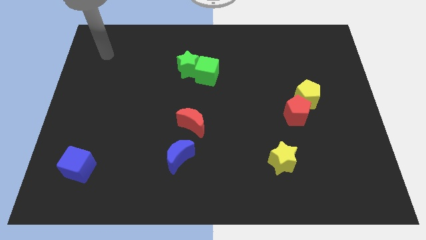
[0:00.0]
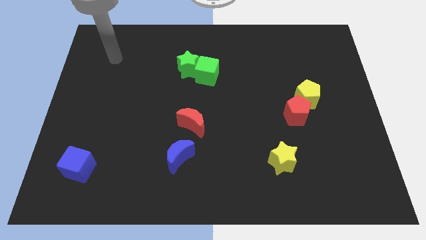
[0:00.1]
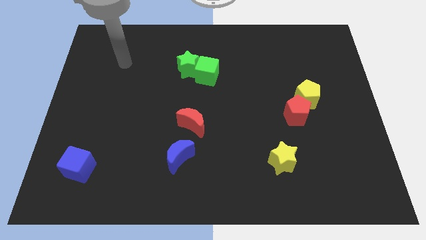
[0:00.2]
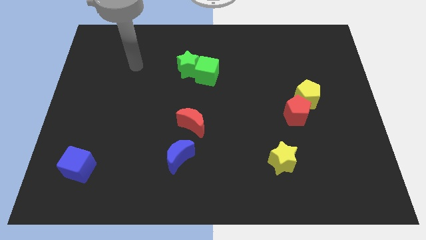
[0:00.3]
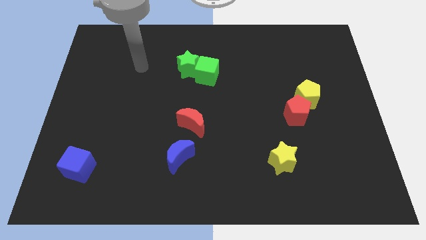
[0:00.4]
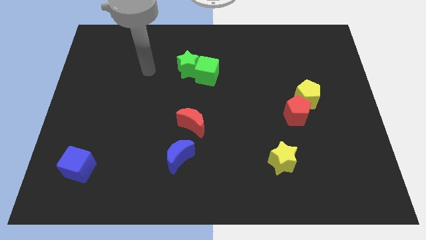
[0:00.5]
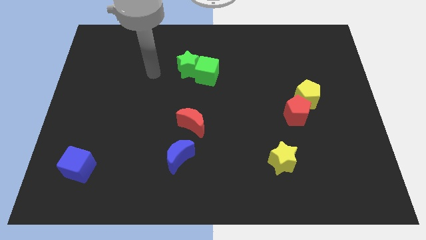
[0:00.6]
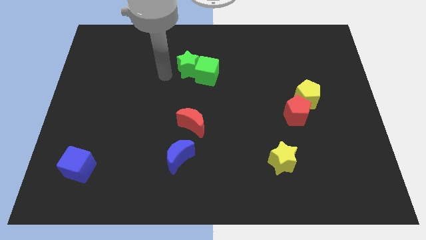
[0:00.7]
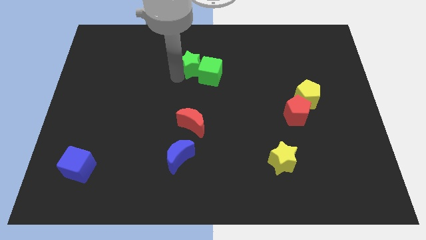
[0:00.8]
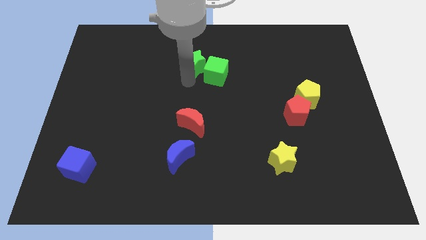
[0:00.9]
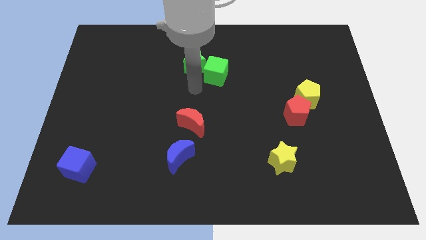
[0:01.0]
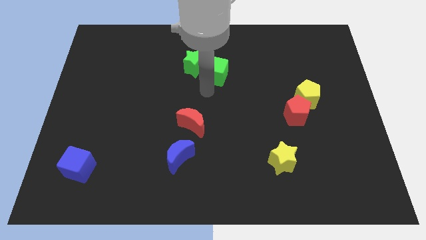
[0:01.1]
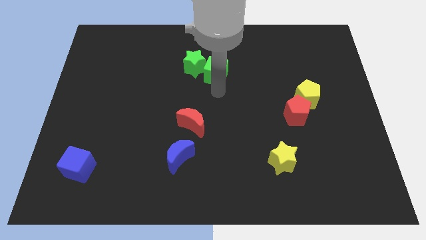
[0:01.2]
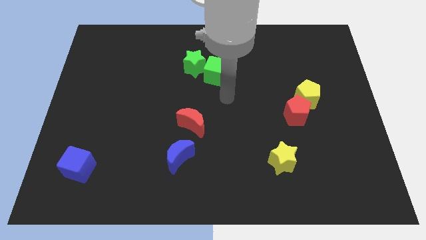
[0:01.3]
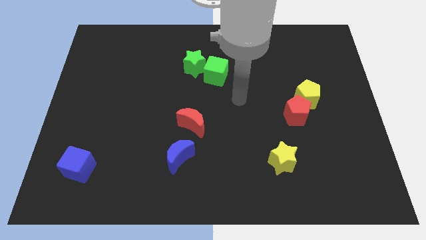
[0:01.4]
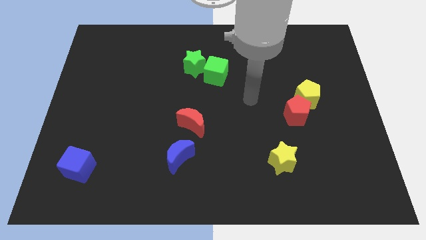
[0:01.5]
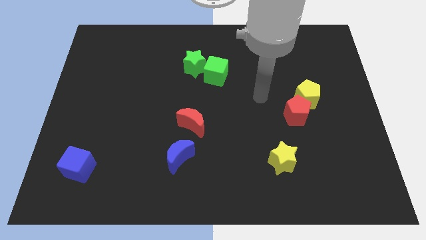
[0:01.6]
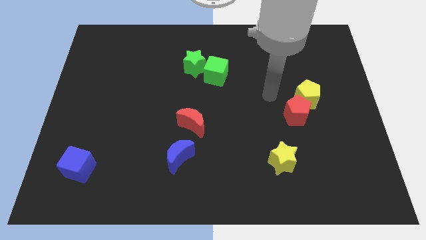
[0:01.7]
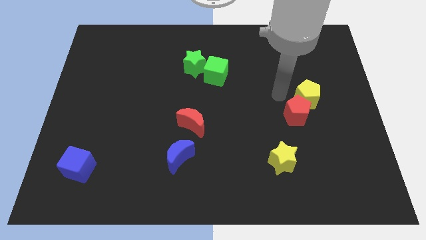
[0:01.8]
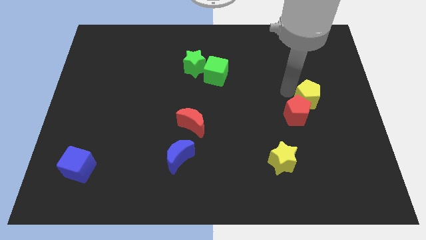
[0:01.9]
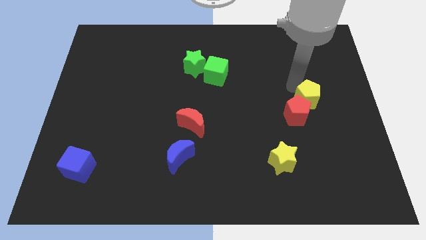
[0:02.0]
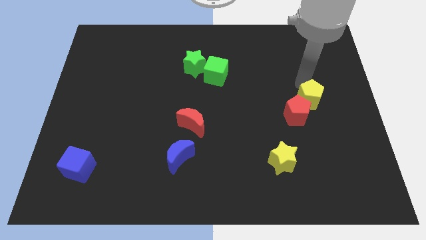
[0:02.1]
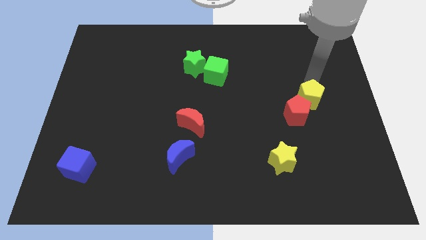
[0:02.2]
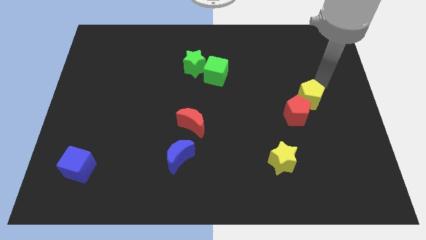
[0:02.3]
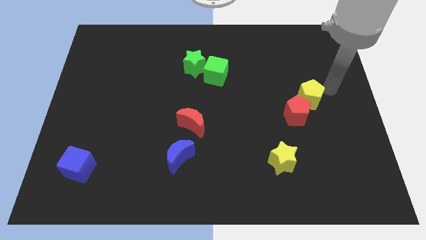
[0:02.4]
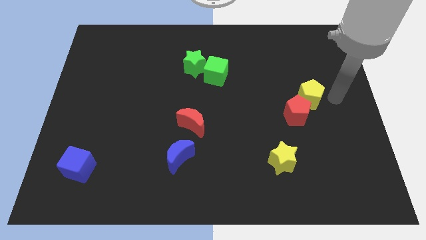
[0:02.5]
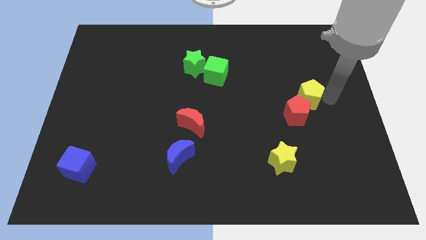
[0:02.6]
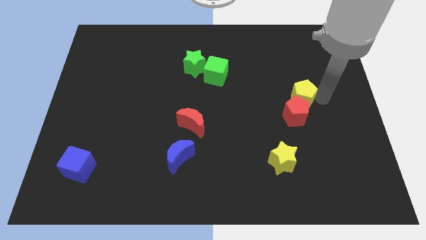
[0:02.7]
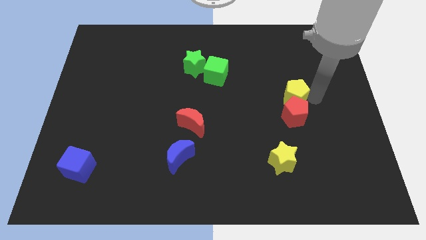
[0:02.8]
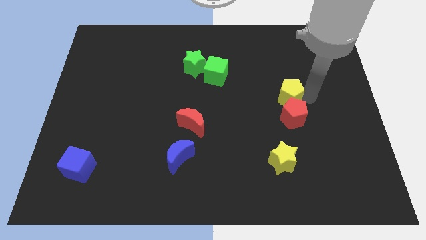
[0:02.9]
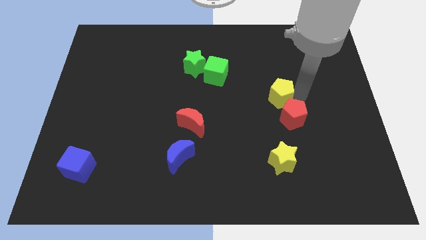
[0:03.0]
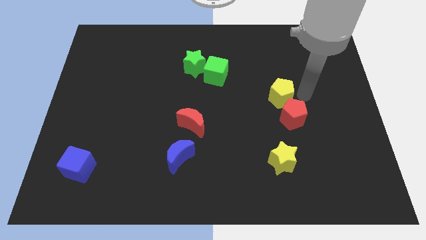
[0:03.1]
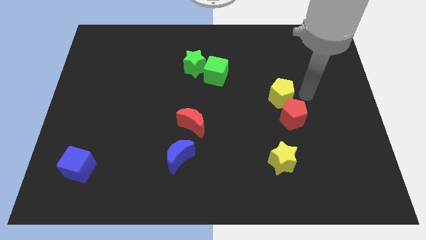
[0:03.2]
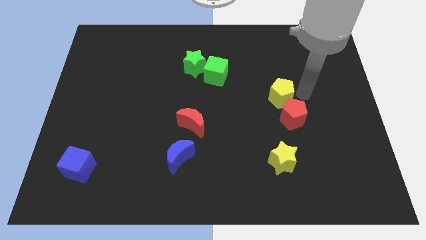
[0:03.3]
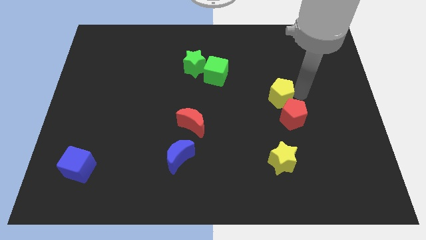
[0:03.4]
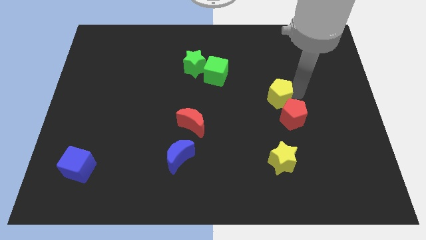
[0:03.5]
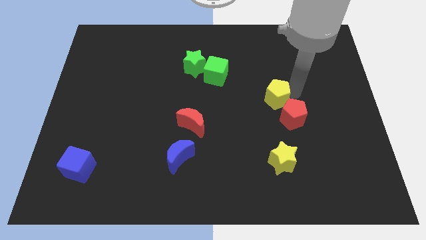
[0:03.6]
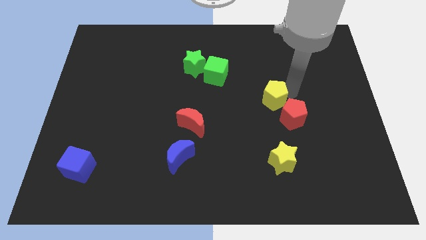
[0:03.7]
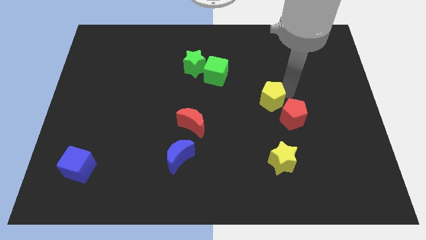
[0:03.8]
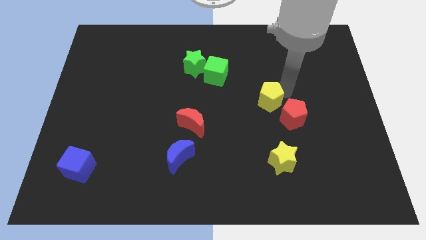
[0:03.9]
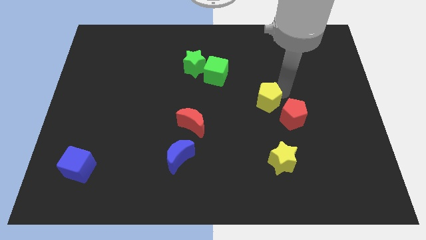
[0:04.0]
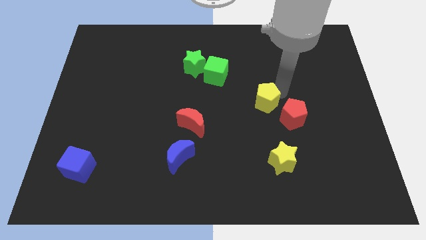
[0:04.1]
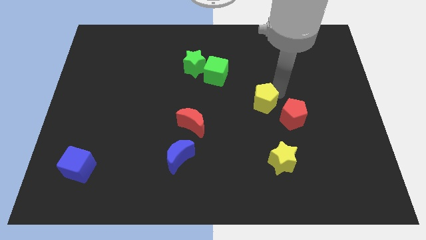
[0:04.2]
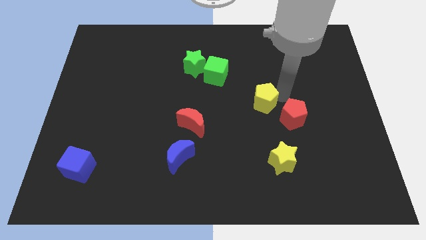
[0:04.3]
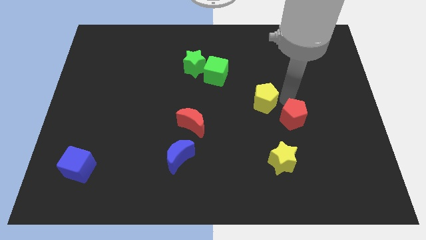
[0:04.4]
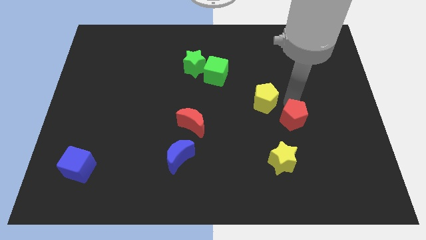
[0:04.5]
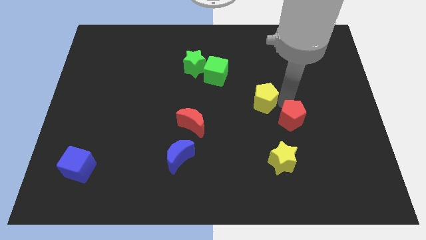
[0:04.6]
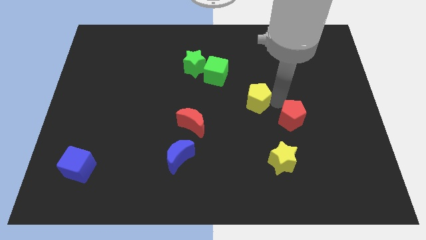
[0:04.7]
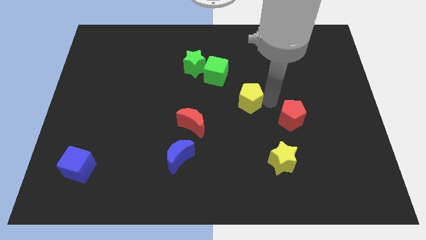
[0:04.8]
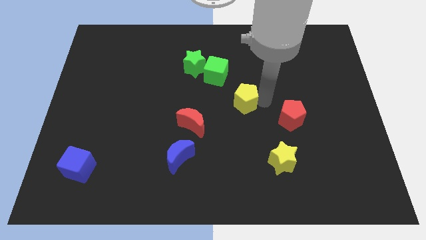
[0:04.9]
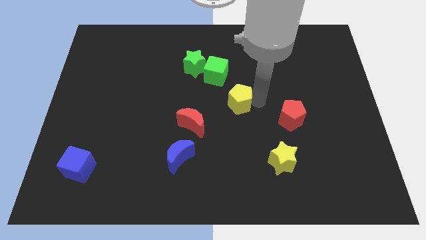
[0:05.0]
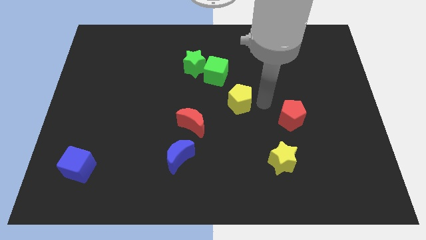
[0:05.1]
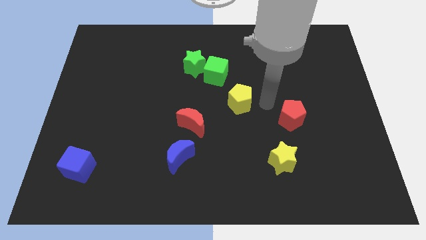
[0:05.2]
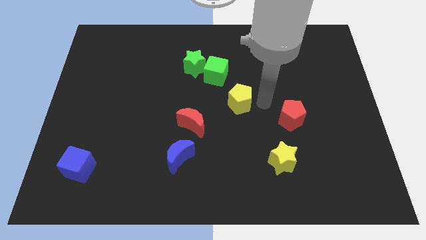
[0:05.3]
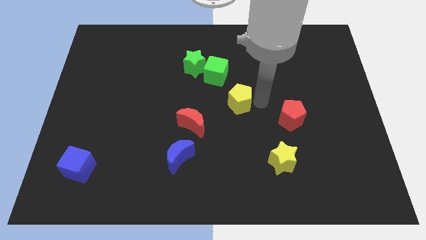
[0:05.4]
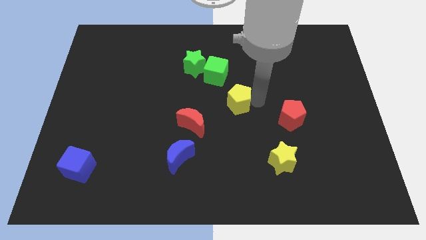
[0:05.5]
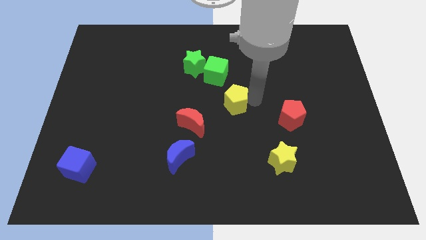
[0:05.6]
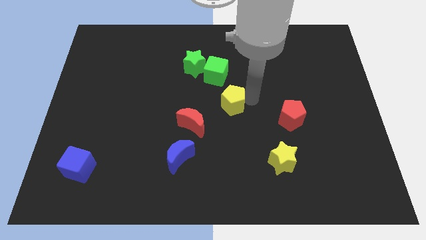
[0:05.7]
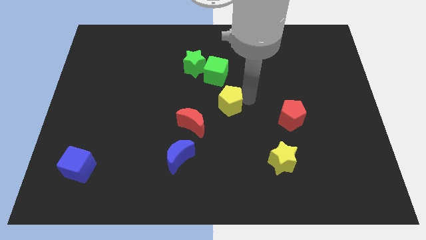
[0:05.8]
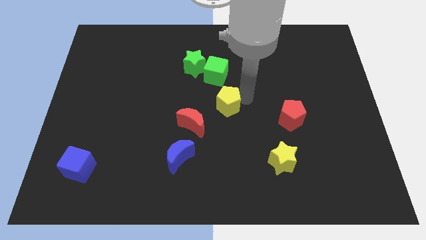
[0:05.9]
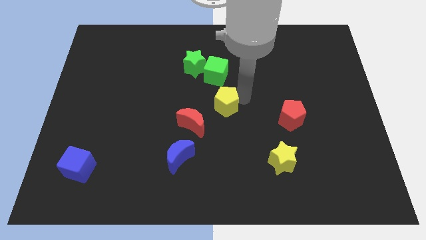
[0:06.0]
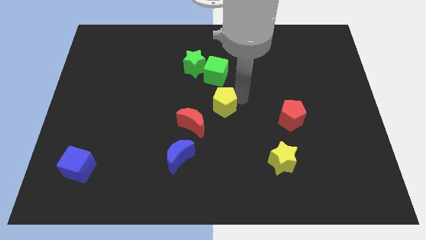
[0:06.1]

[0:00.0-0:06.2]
push the yellow pentagon left

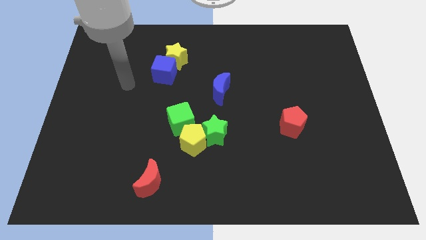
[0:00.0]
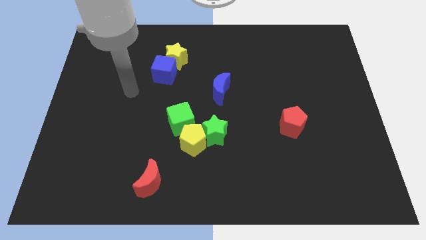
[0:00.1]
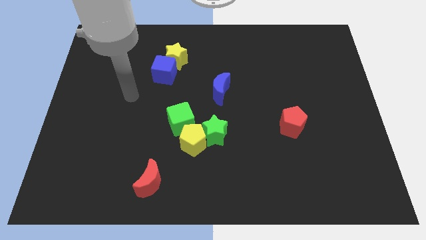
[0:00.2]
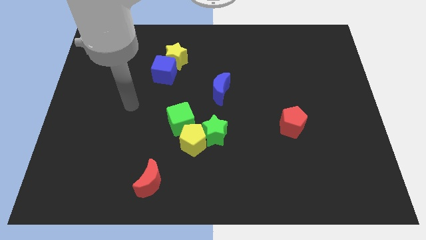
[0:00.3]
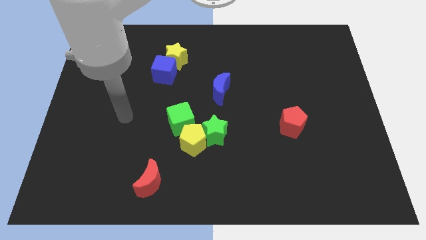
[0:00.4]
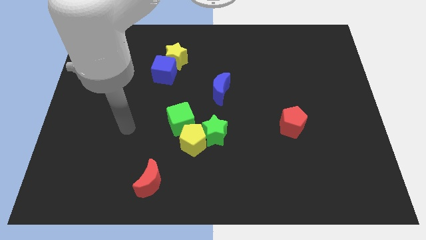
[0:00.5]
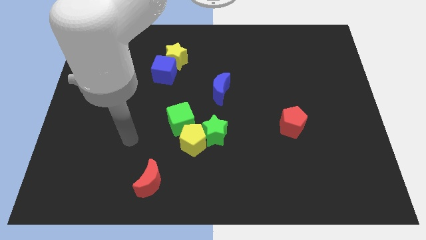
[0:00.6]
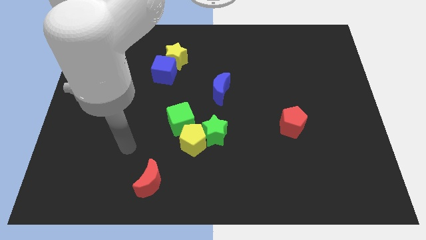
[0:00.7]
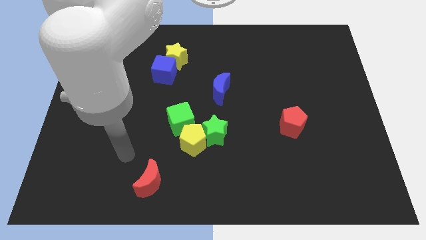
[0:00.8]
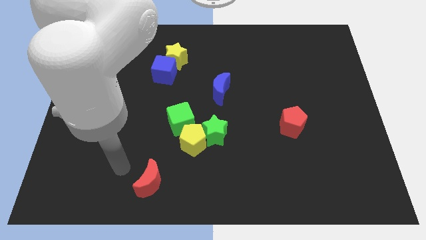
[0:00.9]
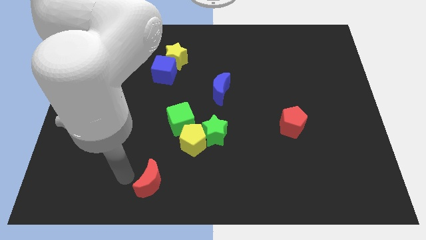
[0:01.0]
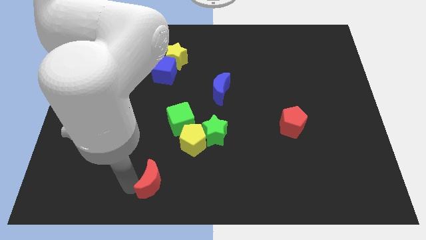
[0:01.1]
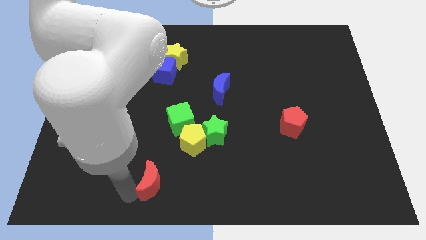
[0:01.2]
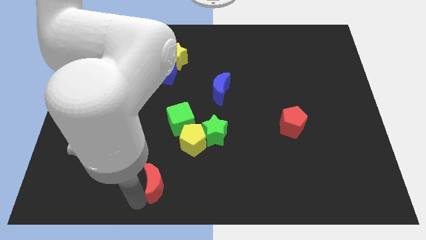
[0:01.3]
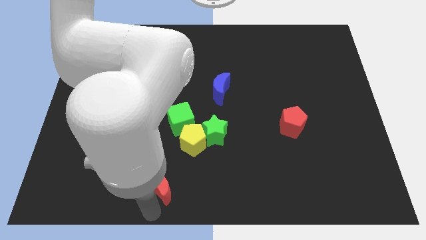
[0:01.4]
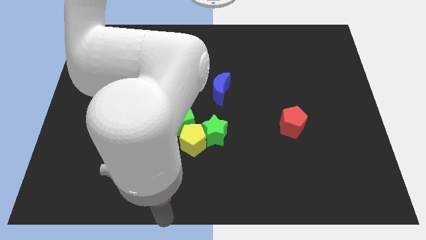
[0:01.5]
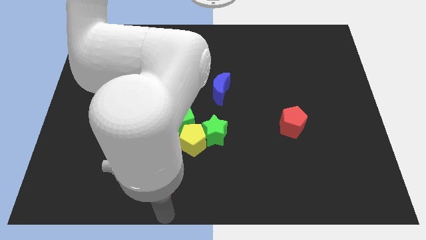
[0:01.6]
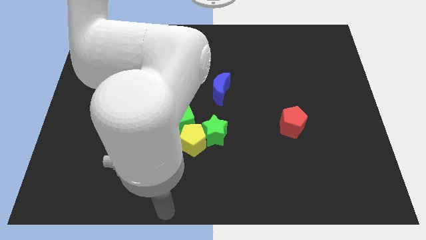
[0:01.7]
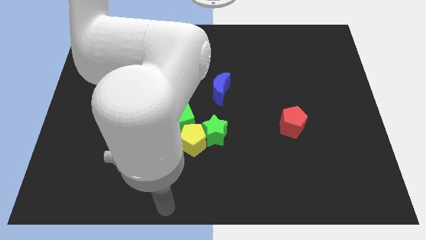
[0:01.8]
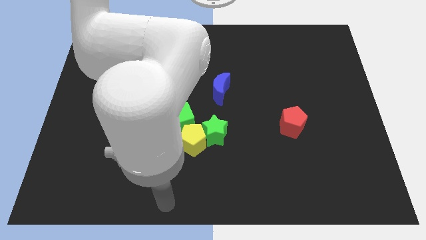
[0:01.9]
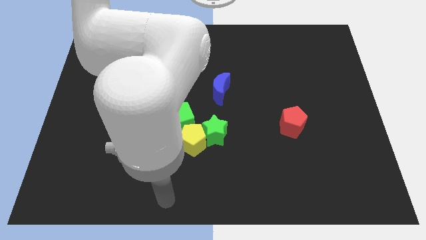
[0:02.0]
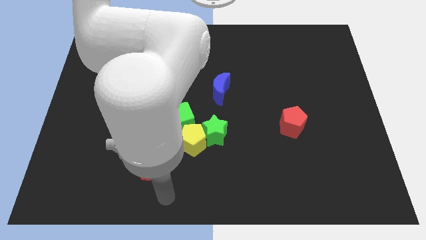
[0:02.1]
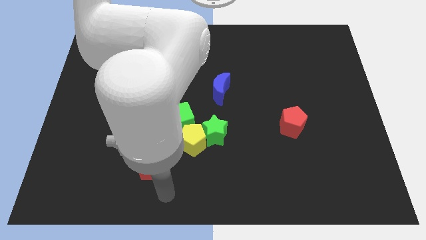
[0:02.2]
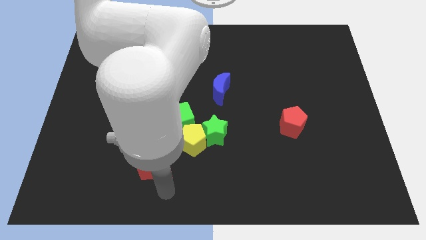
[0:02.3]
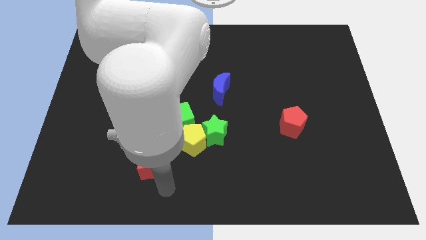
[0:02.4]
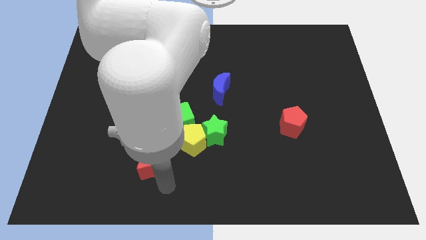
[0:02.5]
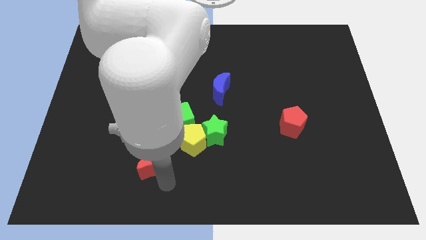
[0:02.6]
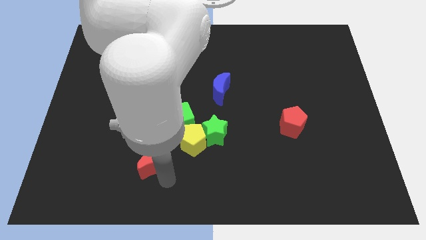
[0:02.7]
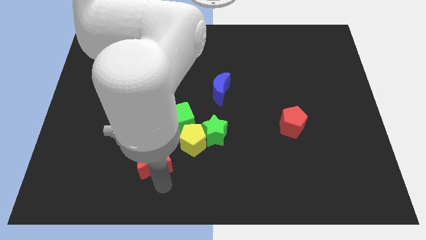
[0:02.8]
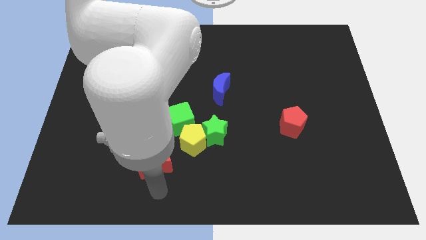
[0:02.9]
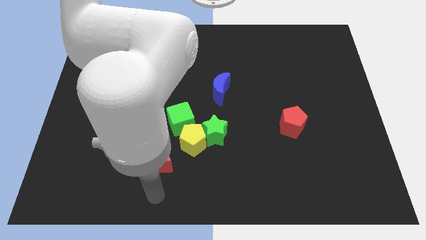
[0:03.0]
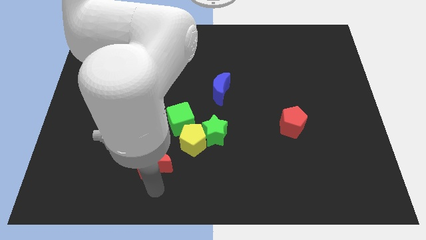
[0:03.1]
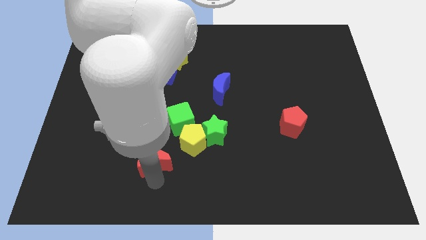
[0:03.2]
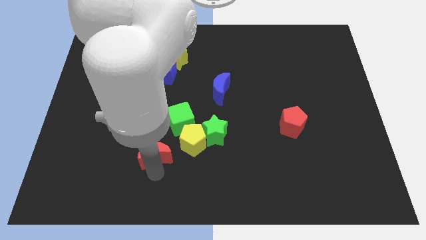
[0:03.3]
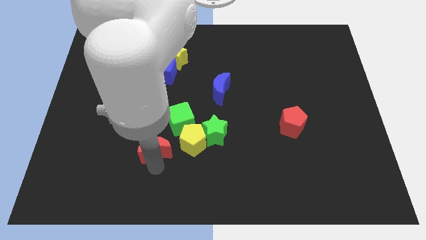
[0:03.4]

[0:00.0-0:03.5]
move the red moon a little up
